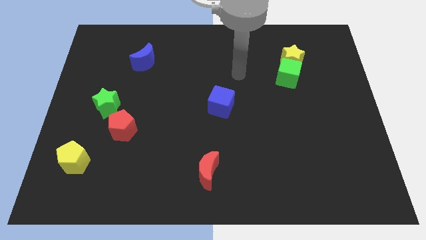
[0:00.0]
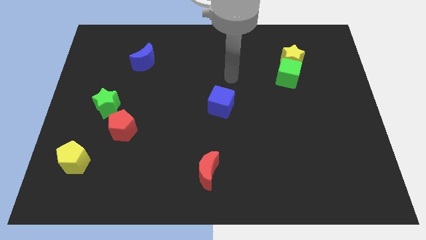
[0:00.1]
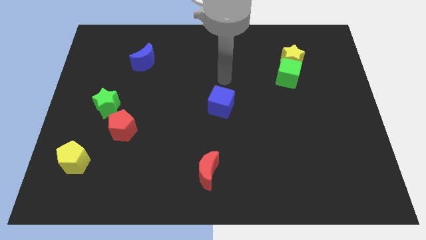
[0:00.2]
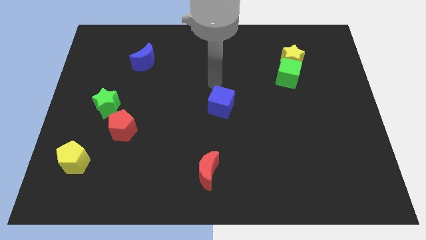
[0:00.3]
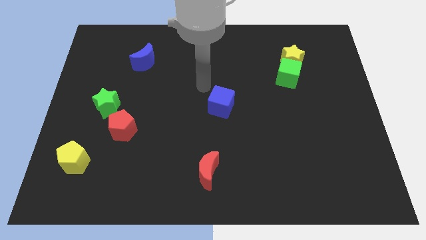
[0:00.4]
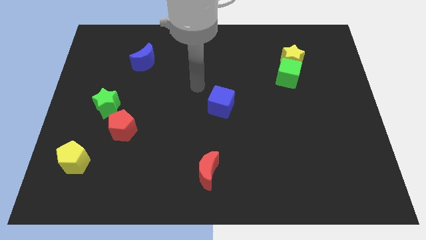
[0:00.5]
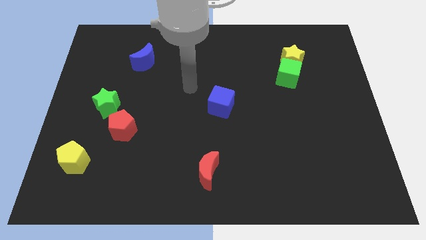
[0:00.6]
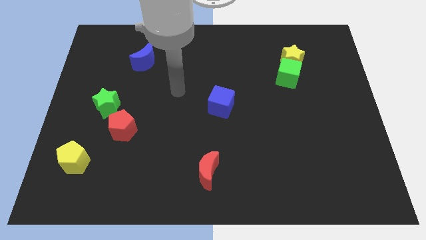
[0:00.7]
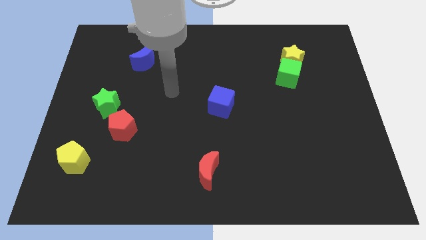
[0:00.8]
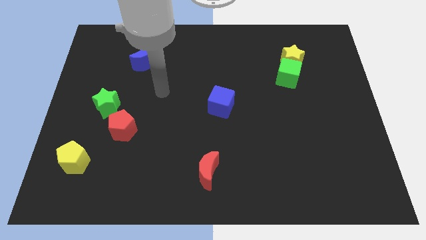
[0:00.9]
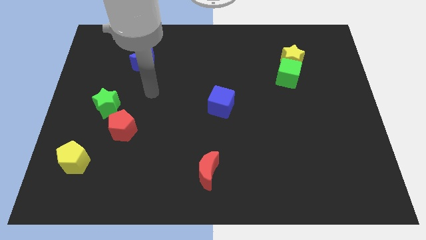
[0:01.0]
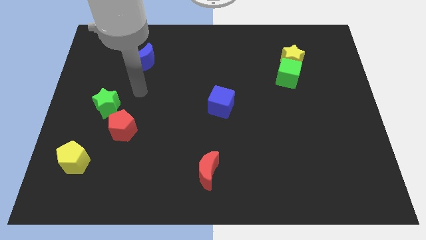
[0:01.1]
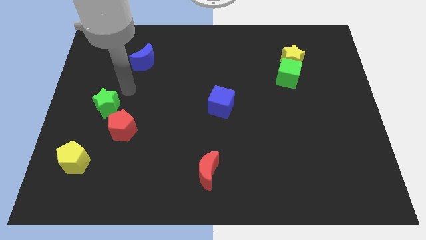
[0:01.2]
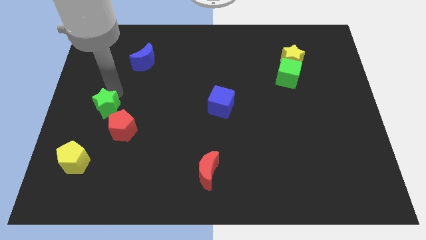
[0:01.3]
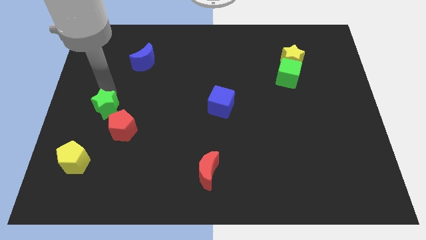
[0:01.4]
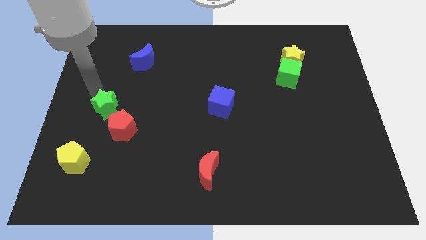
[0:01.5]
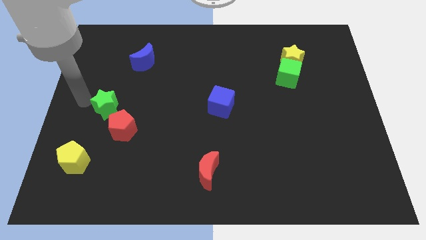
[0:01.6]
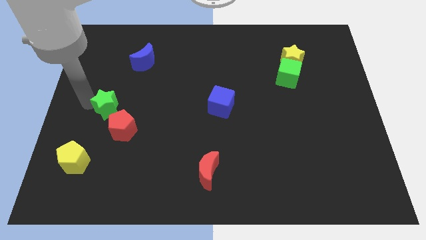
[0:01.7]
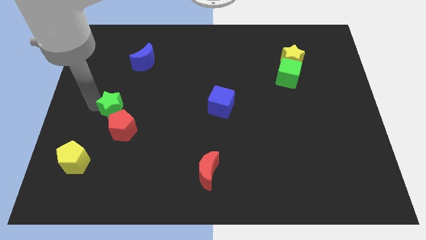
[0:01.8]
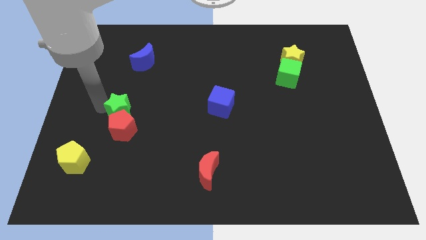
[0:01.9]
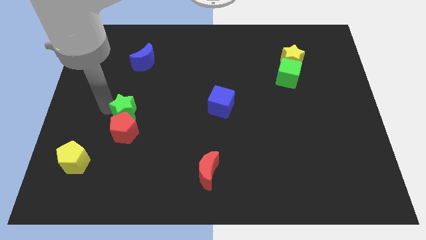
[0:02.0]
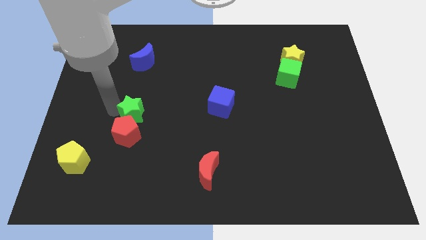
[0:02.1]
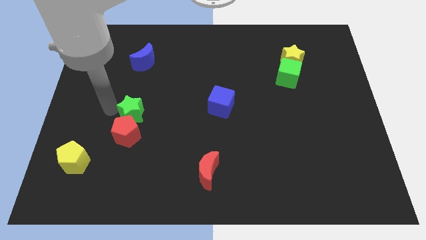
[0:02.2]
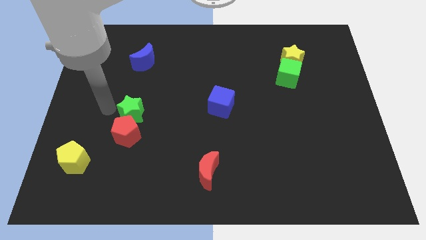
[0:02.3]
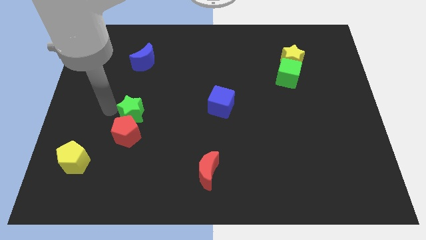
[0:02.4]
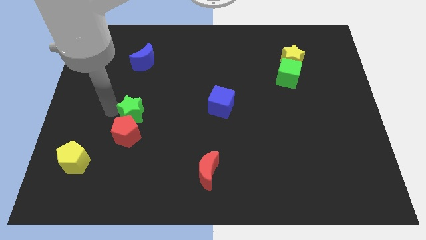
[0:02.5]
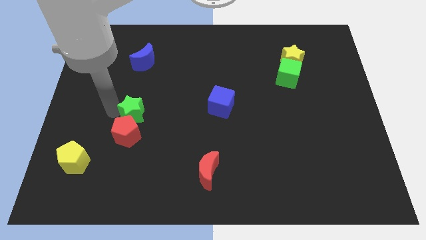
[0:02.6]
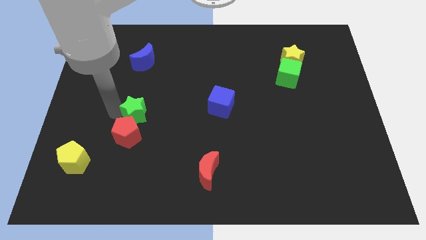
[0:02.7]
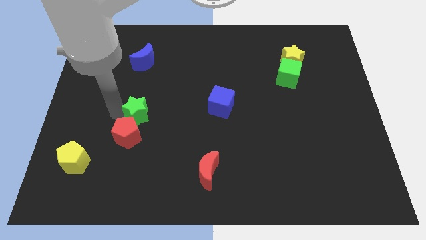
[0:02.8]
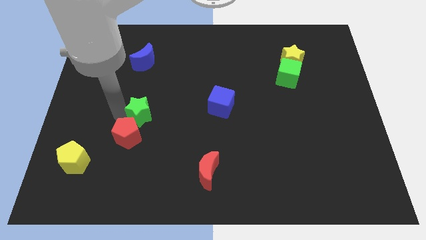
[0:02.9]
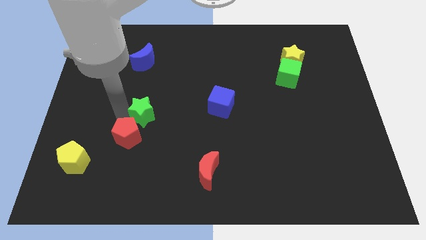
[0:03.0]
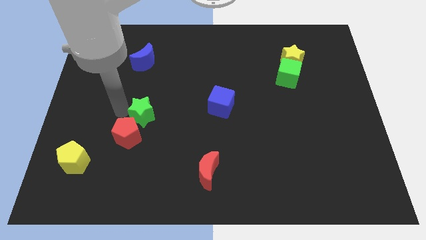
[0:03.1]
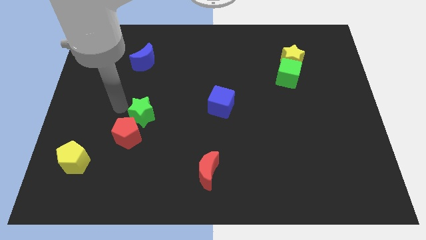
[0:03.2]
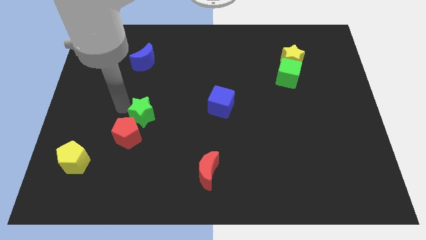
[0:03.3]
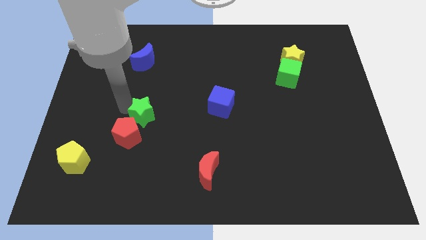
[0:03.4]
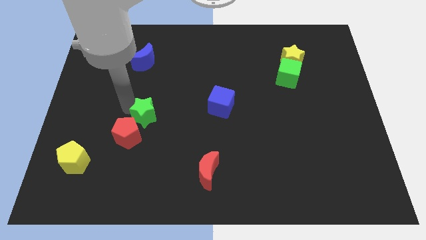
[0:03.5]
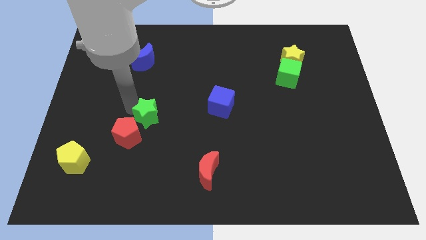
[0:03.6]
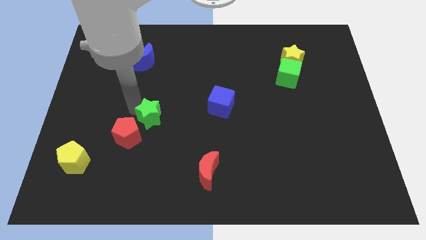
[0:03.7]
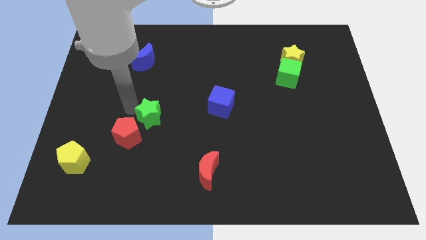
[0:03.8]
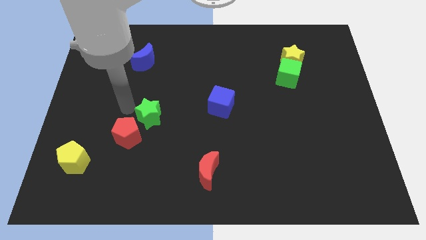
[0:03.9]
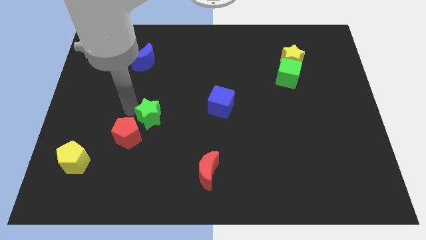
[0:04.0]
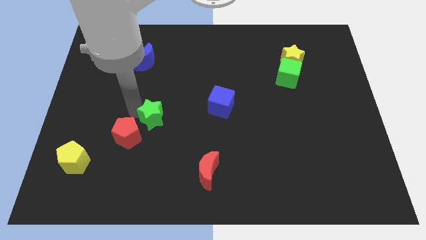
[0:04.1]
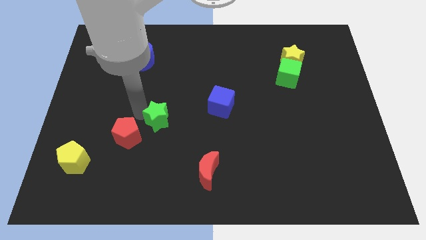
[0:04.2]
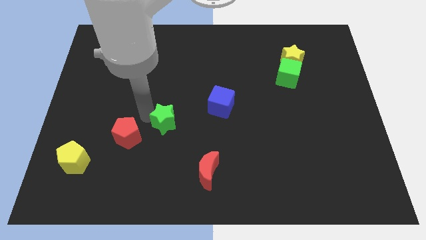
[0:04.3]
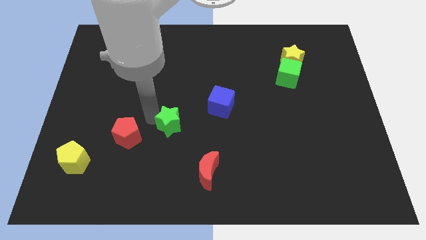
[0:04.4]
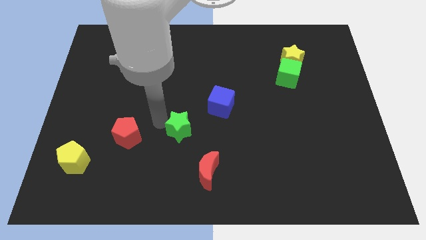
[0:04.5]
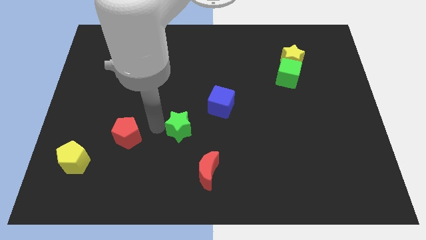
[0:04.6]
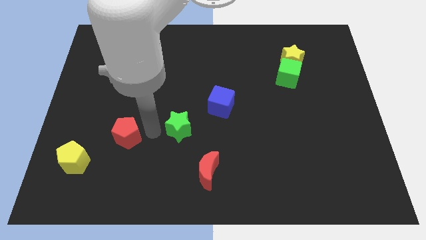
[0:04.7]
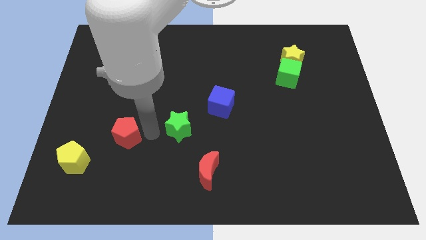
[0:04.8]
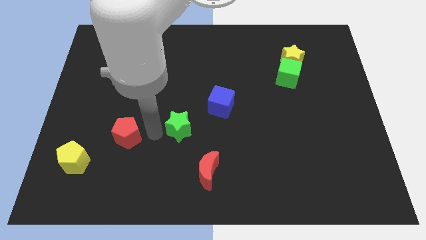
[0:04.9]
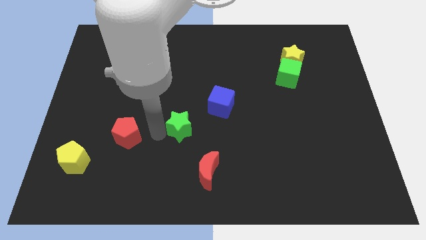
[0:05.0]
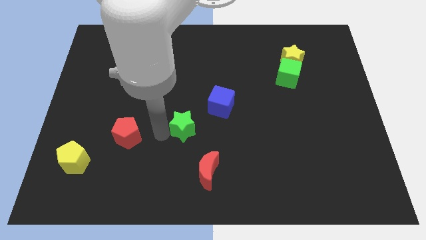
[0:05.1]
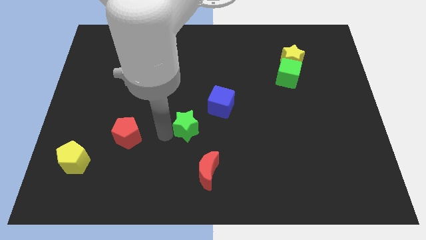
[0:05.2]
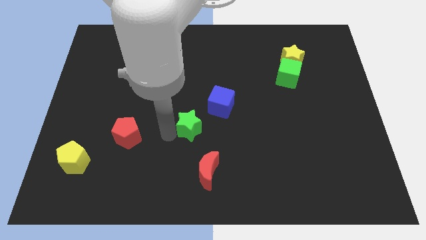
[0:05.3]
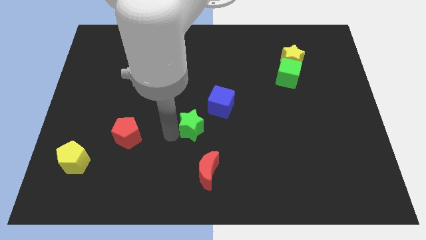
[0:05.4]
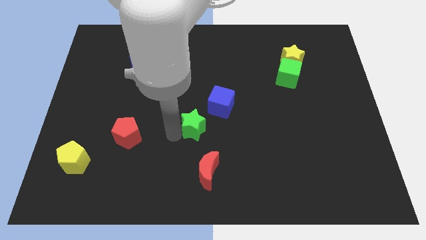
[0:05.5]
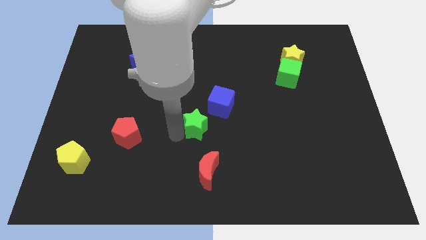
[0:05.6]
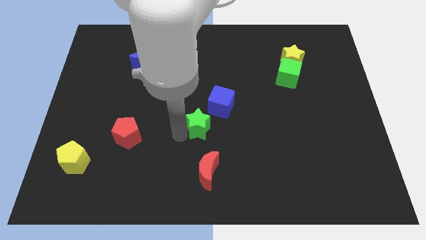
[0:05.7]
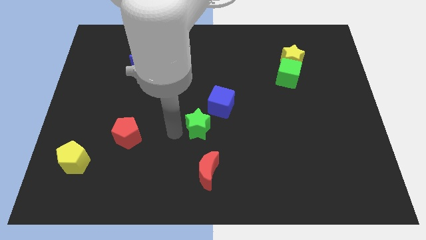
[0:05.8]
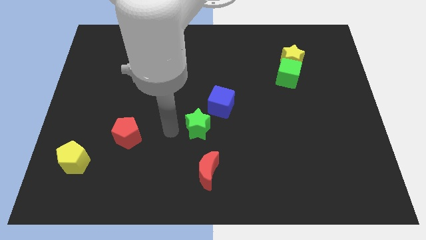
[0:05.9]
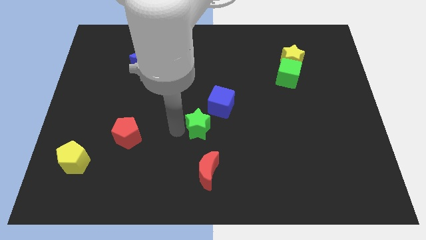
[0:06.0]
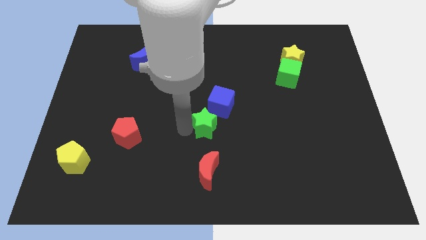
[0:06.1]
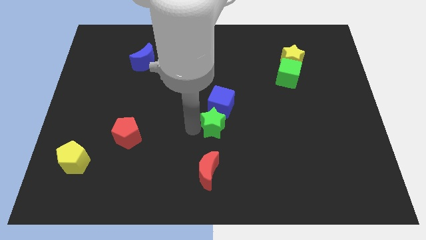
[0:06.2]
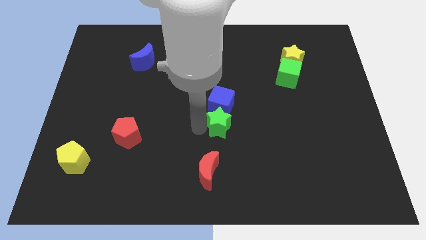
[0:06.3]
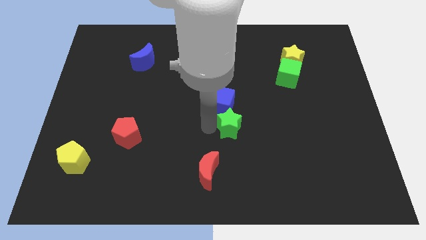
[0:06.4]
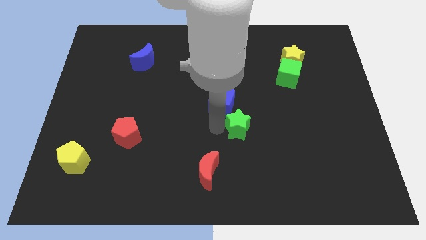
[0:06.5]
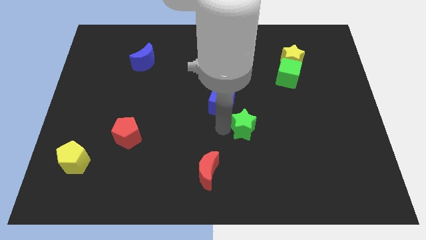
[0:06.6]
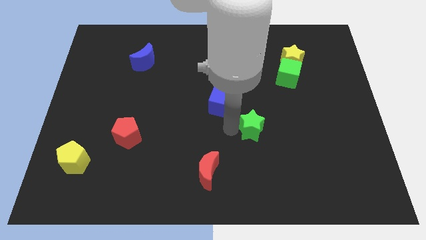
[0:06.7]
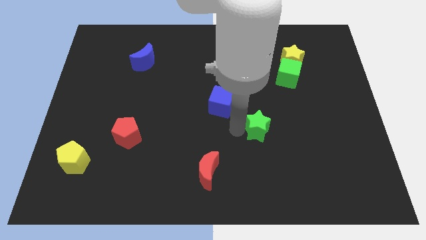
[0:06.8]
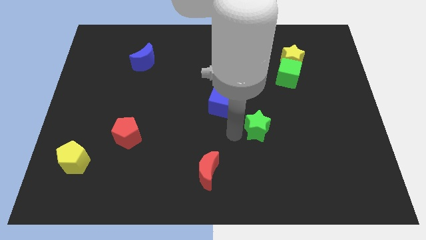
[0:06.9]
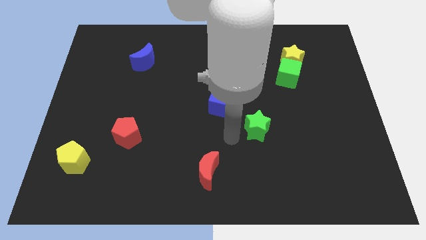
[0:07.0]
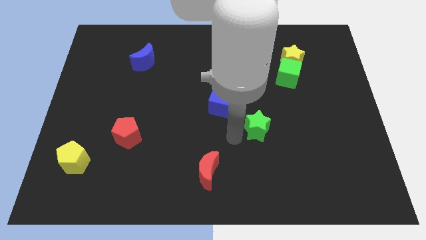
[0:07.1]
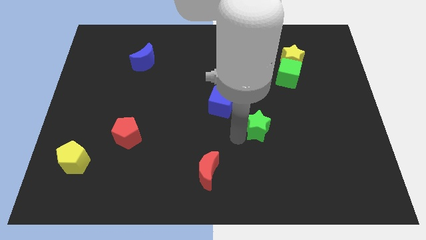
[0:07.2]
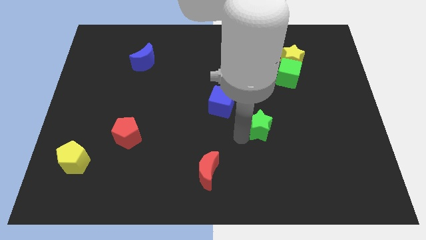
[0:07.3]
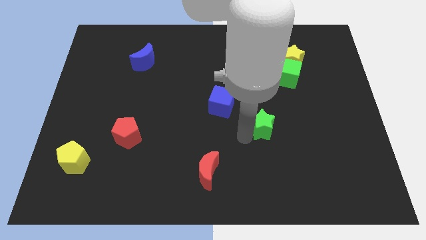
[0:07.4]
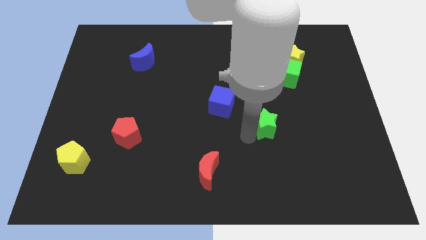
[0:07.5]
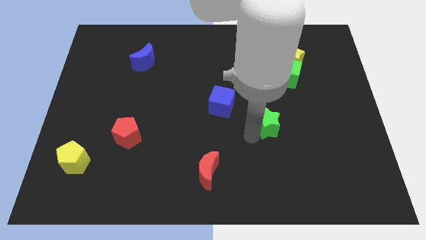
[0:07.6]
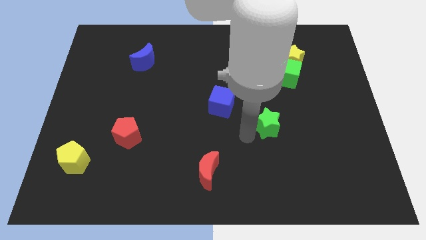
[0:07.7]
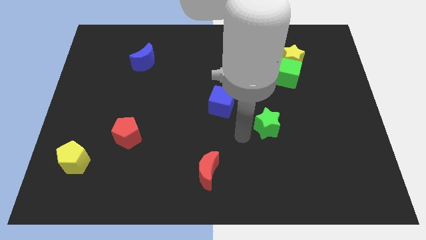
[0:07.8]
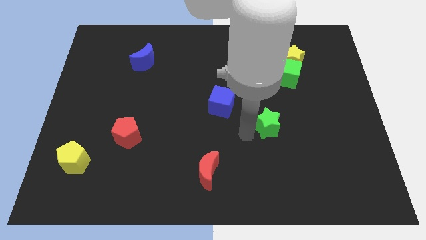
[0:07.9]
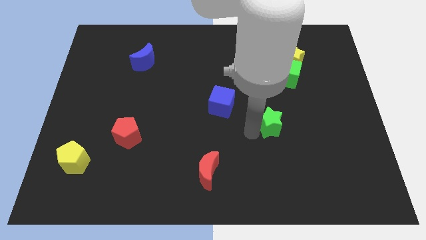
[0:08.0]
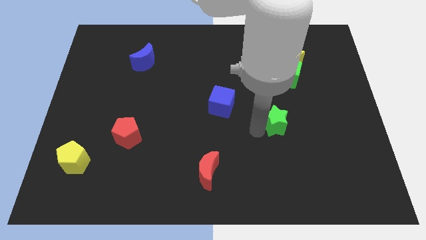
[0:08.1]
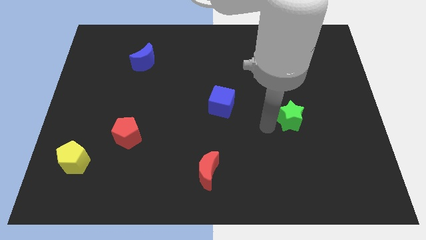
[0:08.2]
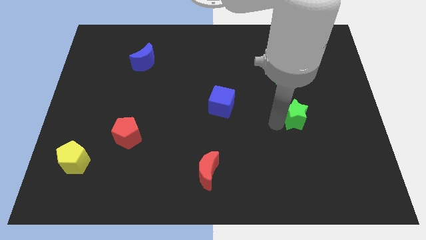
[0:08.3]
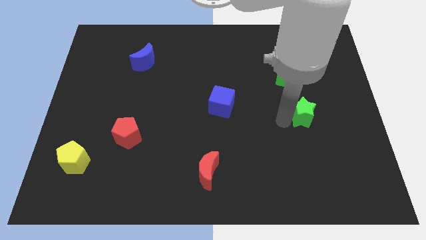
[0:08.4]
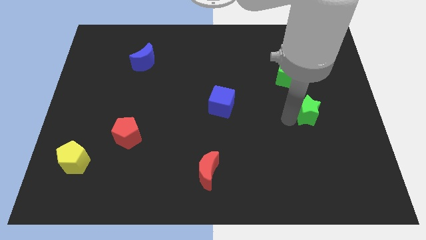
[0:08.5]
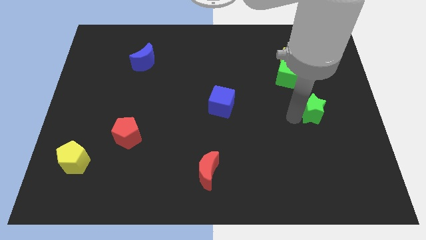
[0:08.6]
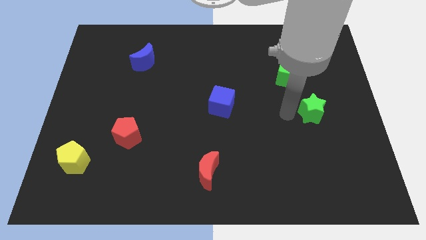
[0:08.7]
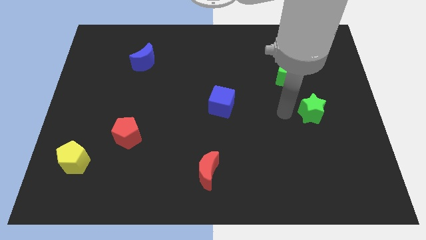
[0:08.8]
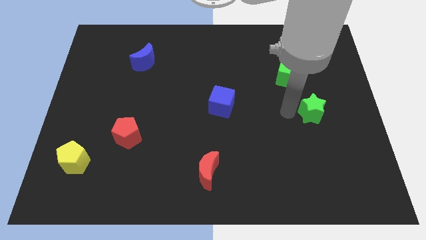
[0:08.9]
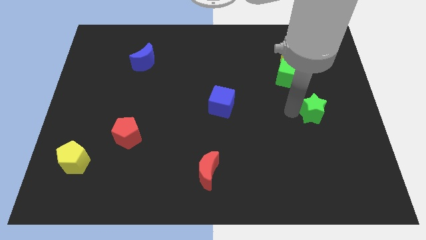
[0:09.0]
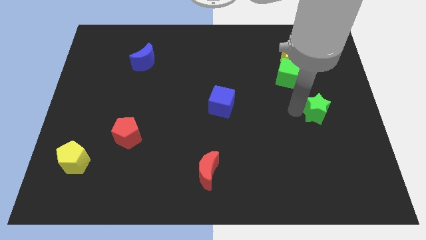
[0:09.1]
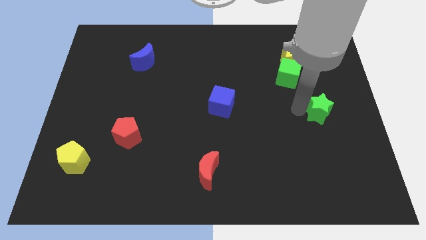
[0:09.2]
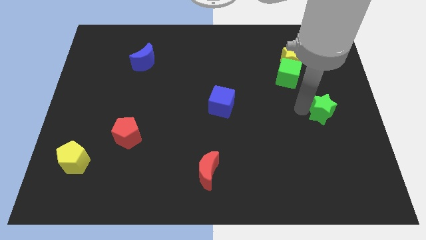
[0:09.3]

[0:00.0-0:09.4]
put the green star to the right side of the board
